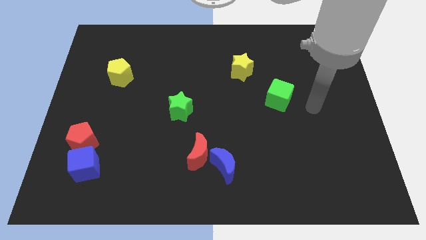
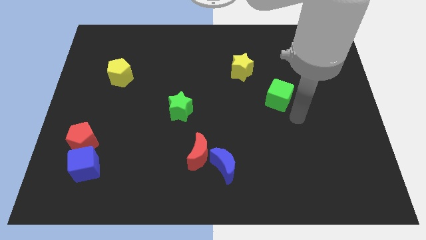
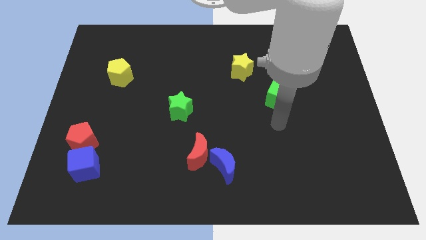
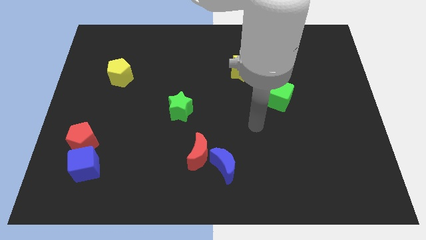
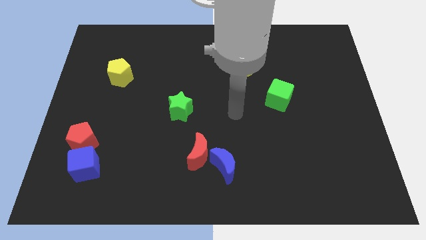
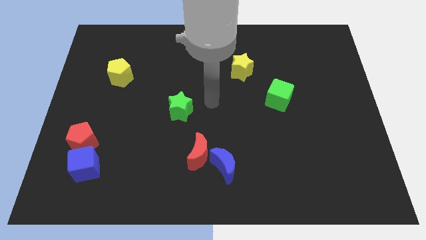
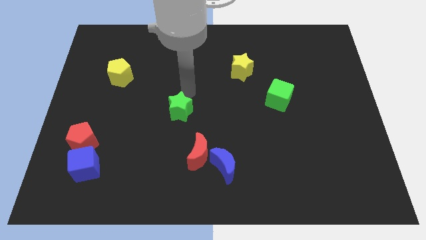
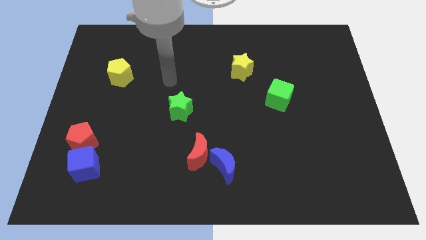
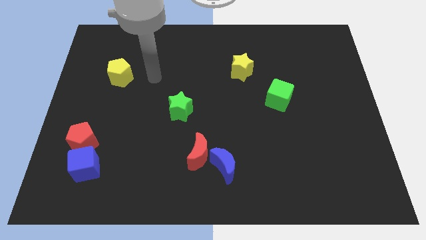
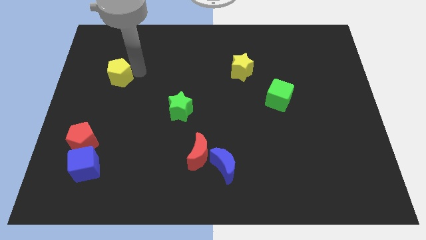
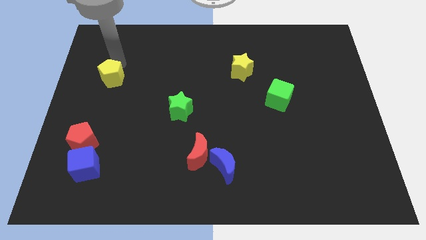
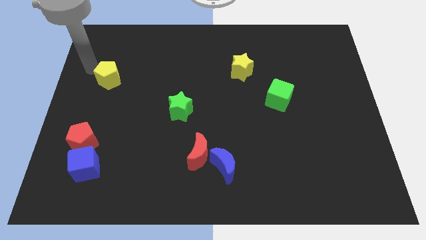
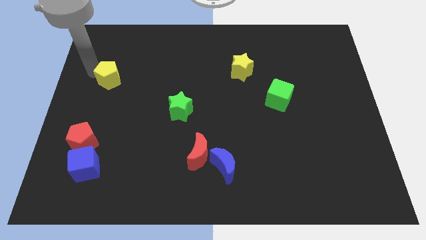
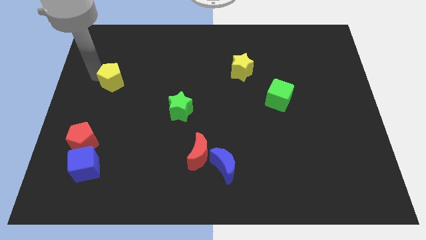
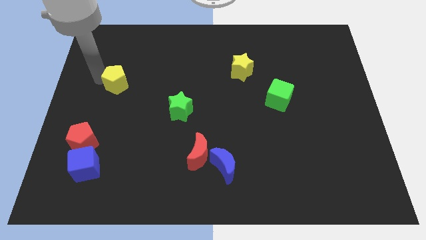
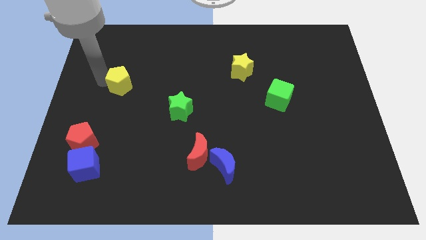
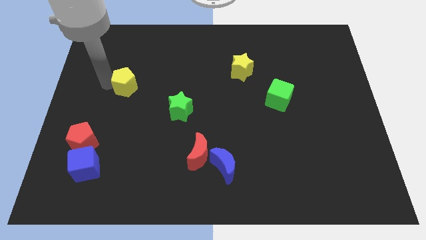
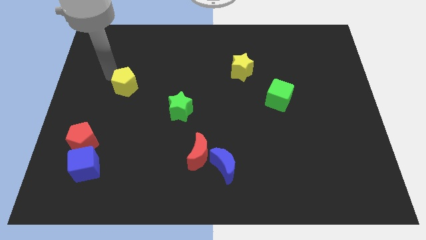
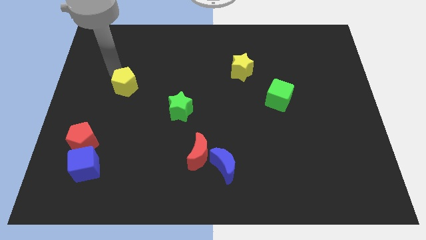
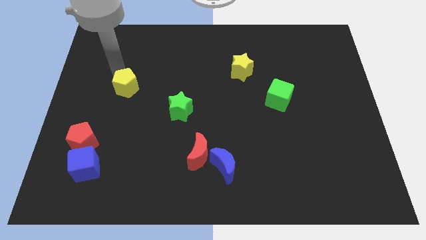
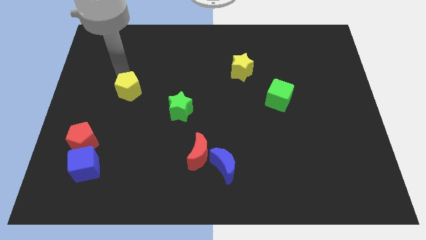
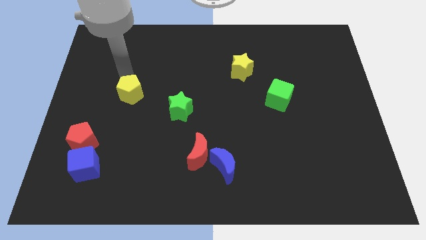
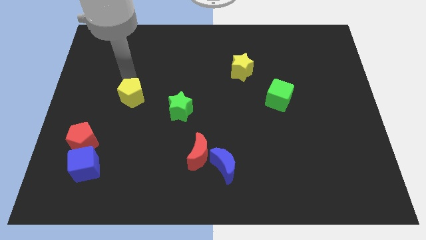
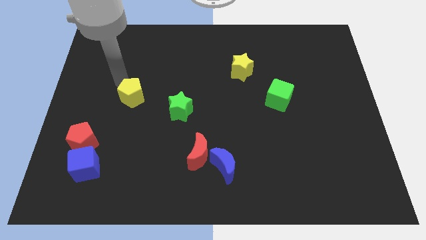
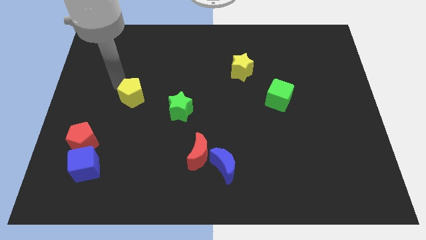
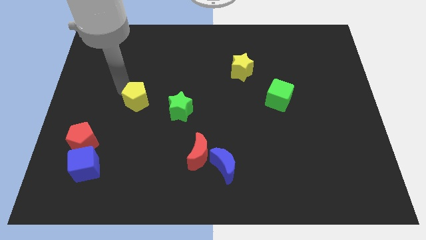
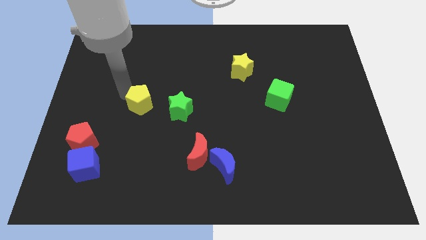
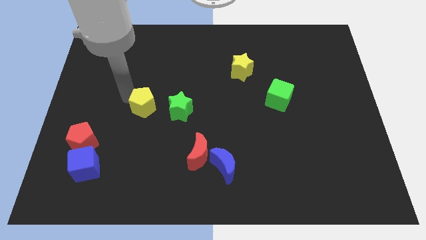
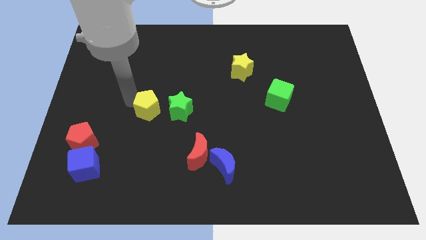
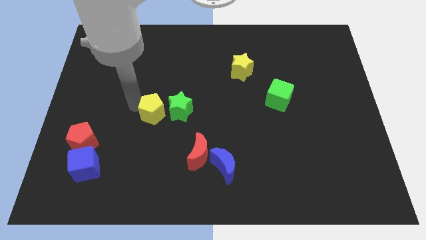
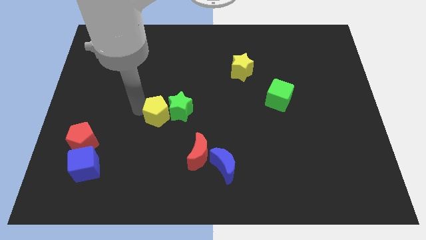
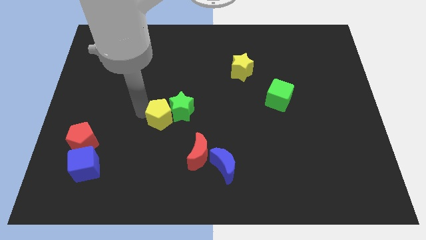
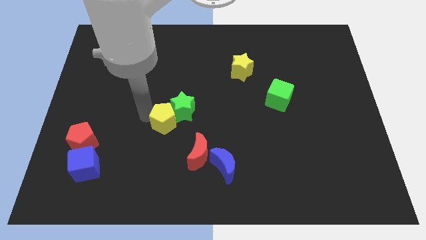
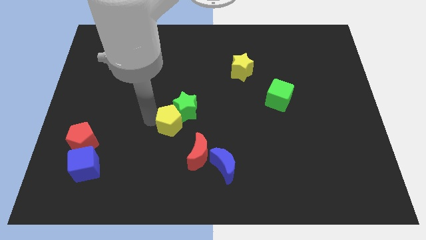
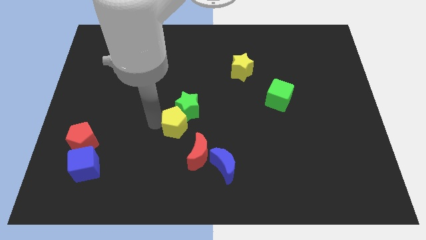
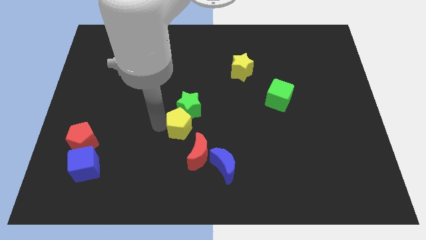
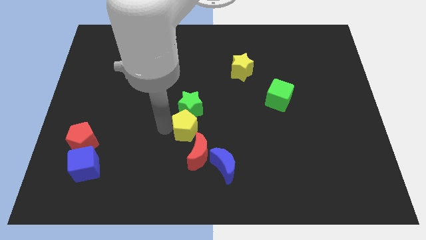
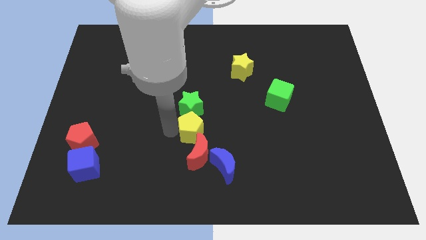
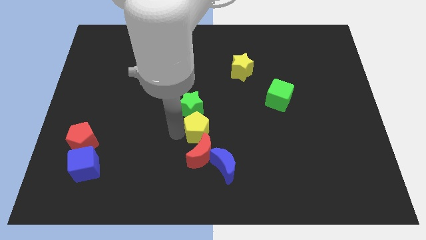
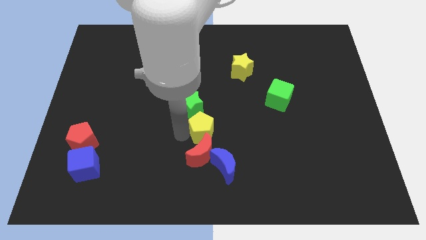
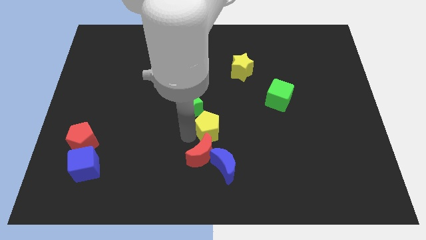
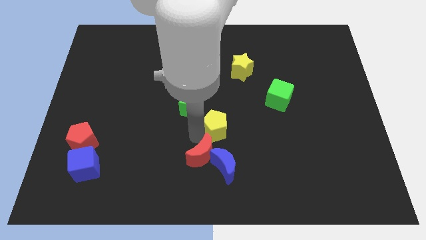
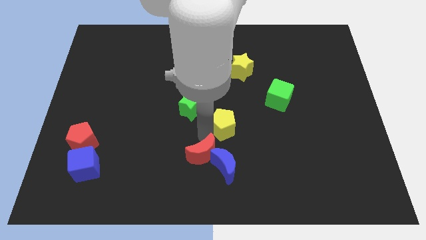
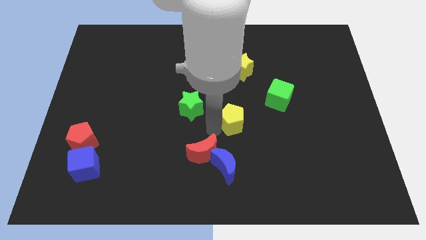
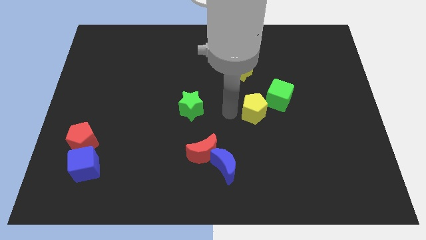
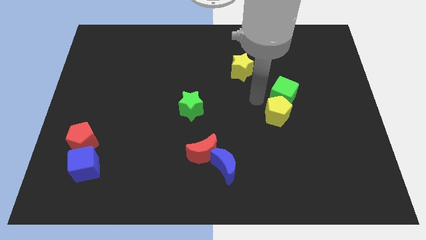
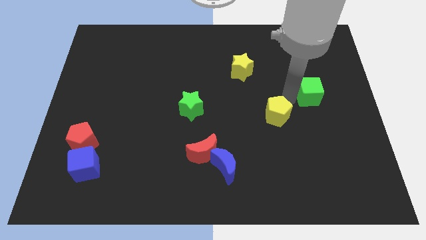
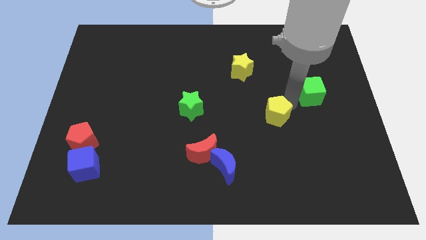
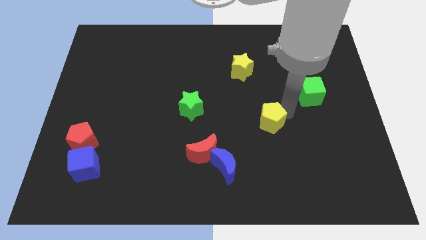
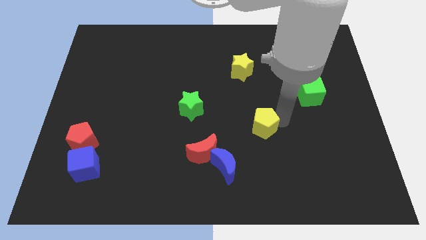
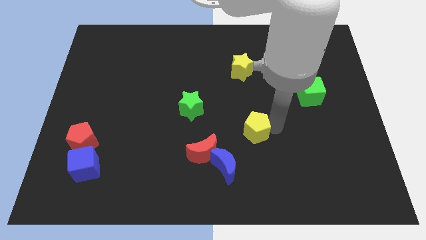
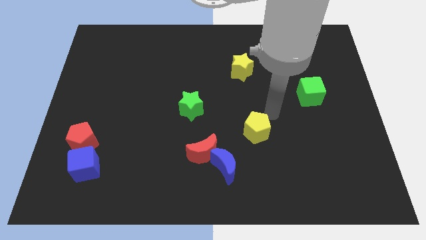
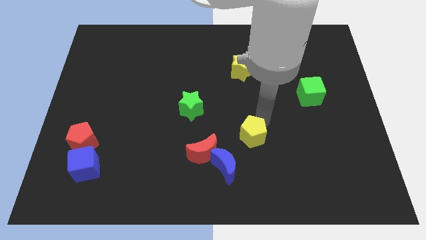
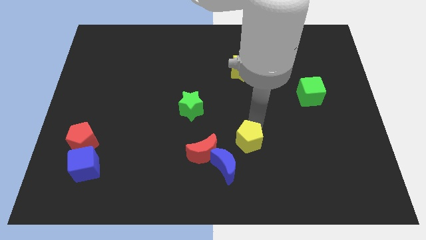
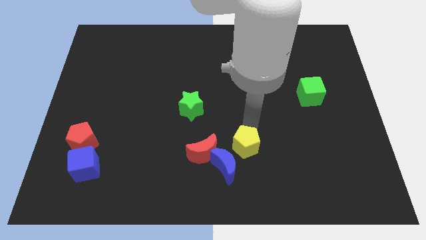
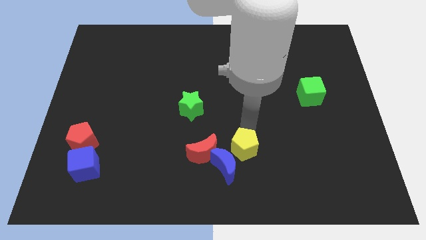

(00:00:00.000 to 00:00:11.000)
move the yellow pentagon towards the blue moon

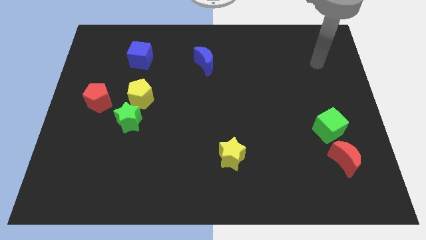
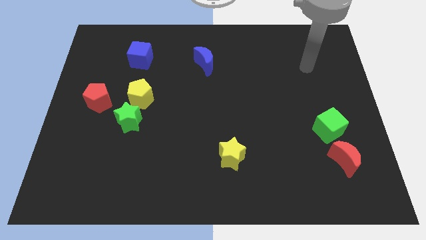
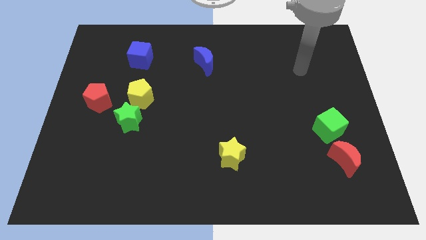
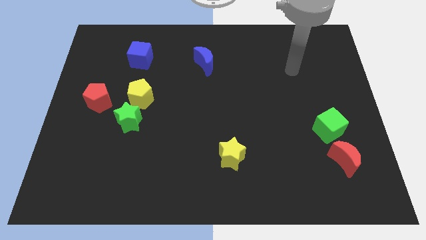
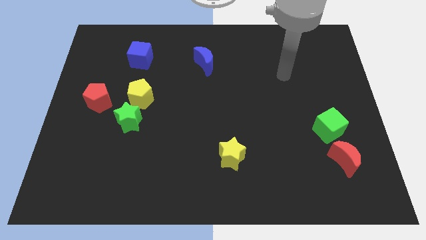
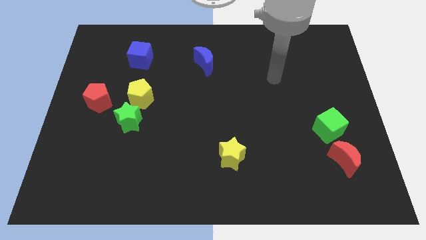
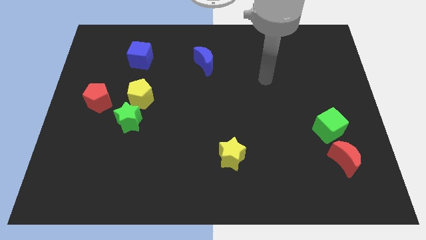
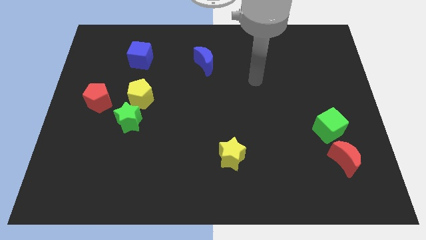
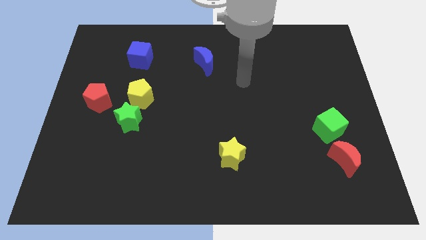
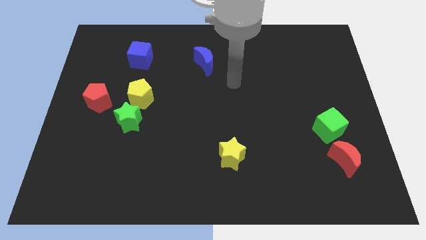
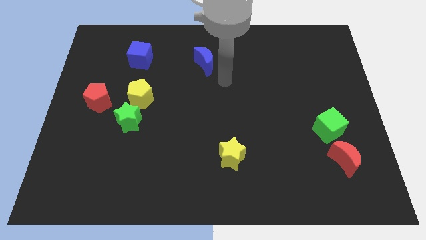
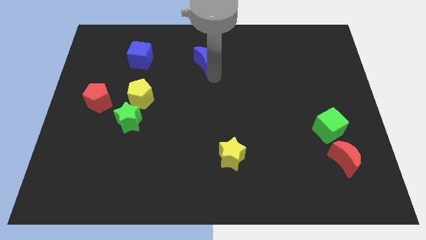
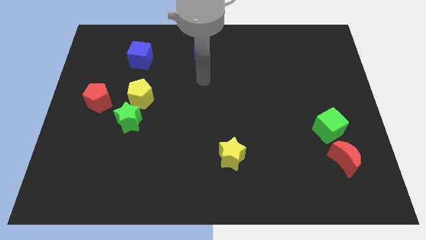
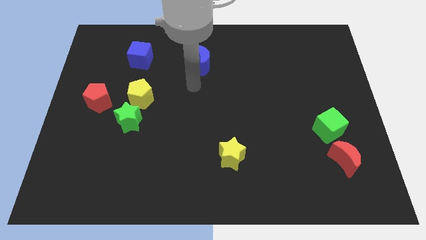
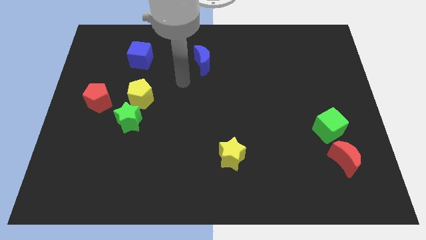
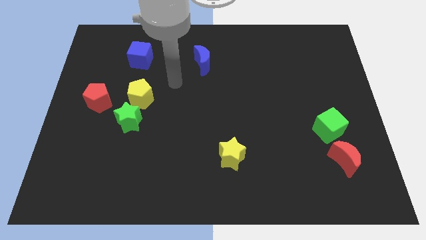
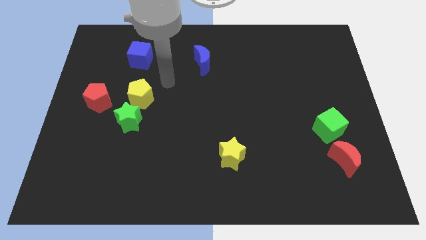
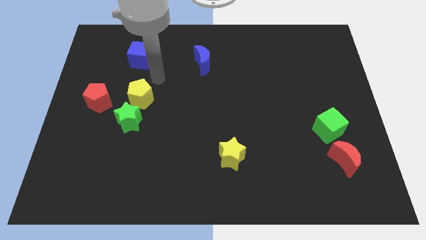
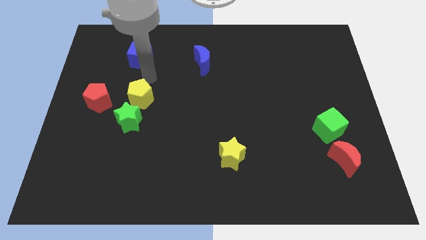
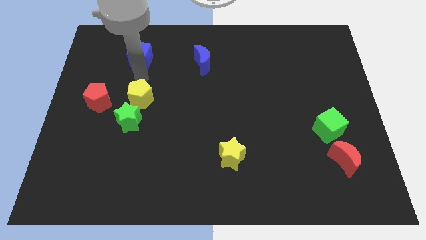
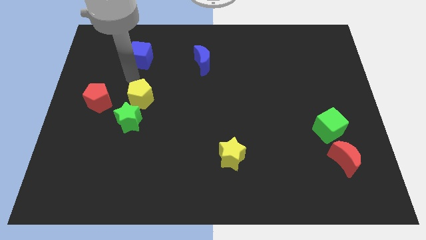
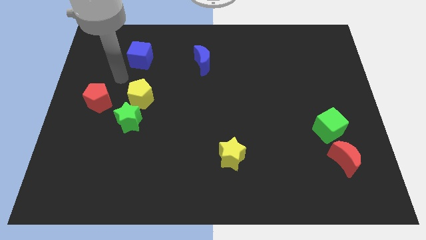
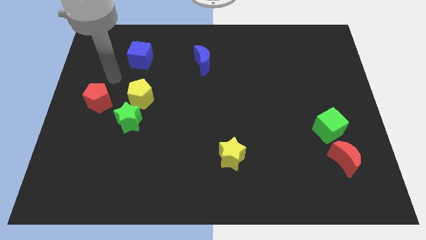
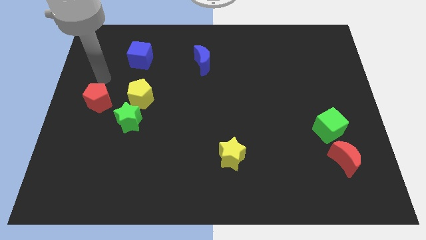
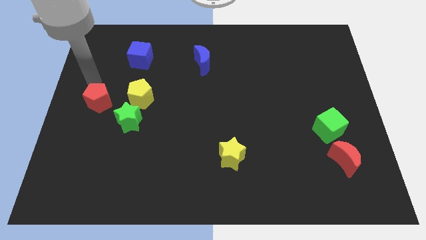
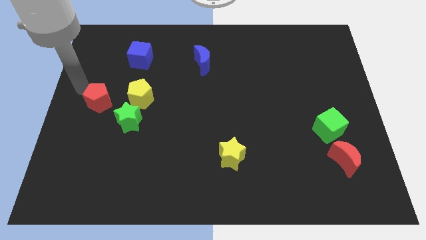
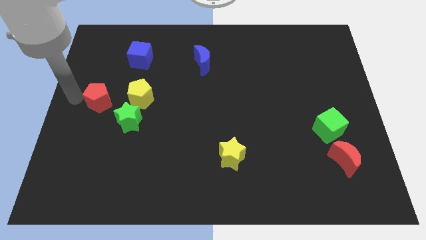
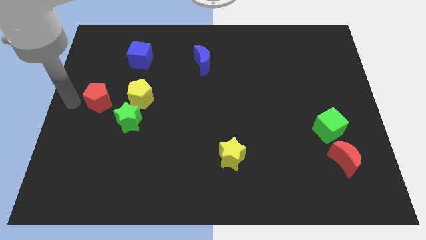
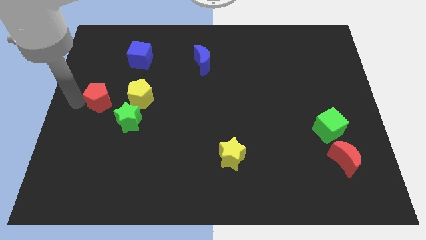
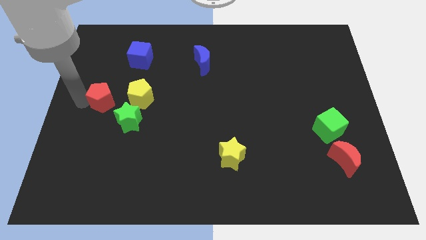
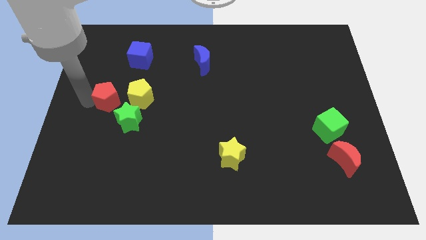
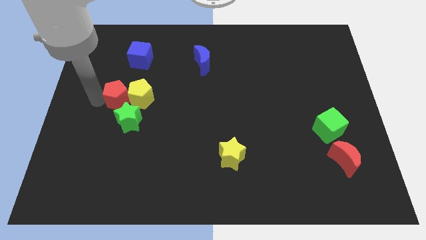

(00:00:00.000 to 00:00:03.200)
slide the red pentagon towards the yellow pentagon
